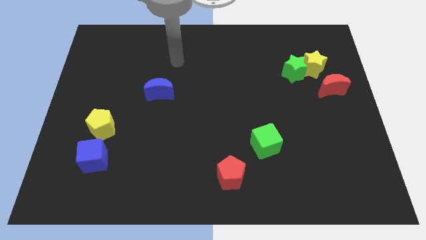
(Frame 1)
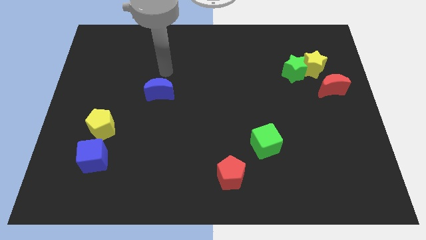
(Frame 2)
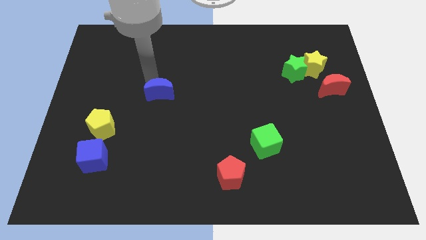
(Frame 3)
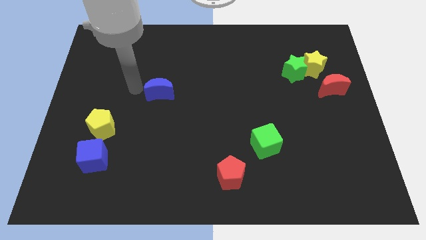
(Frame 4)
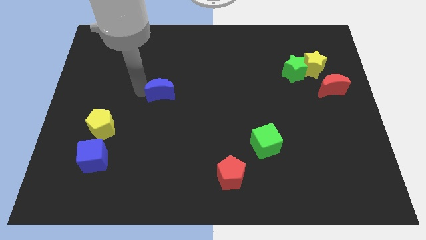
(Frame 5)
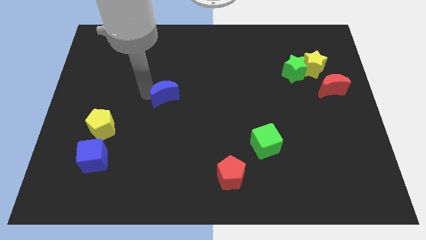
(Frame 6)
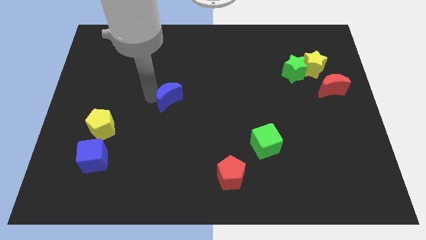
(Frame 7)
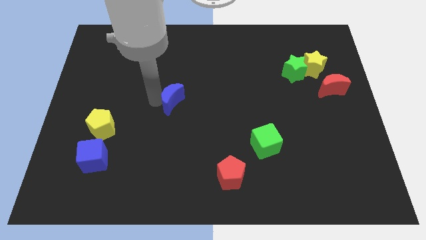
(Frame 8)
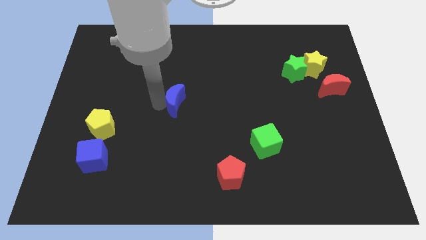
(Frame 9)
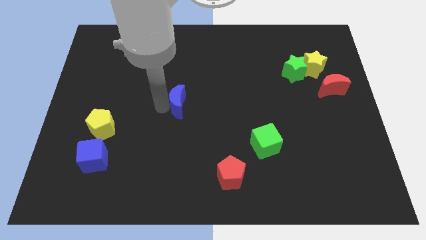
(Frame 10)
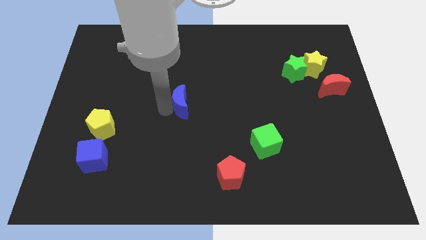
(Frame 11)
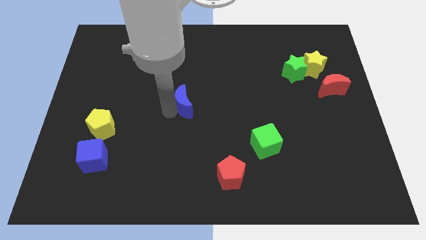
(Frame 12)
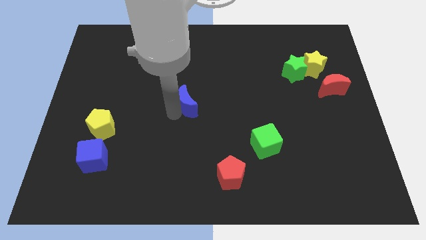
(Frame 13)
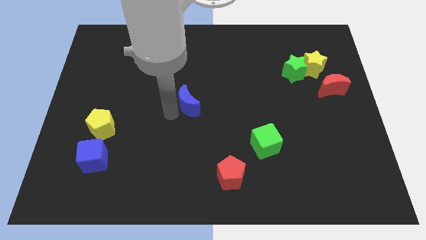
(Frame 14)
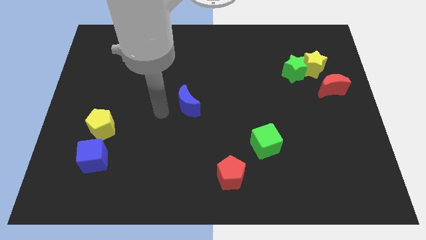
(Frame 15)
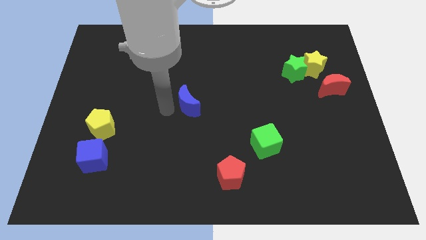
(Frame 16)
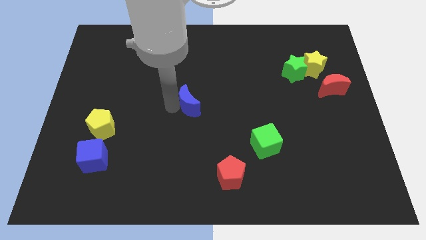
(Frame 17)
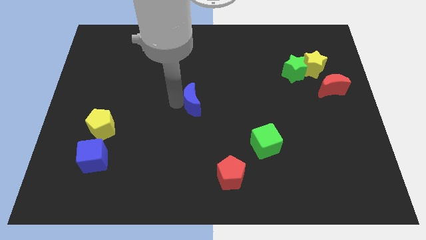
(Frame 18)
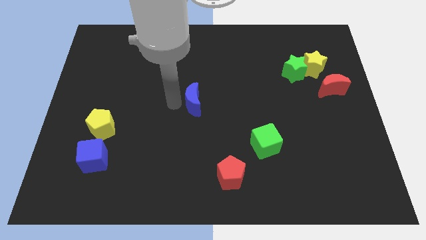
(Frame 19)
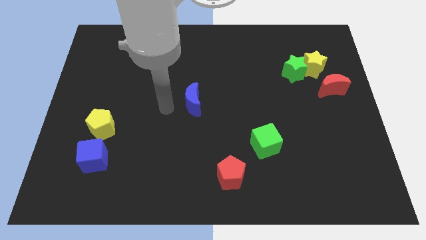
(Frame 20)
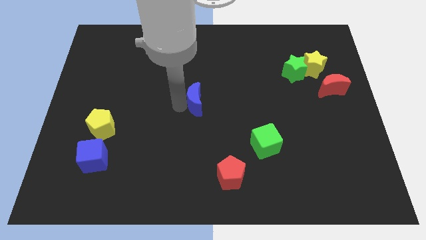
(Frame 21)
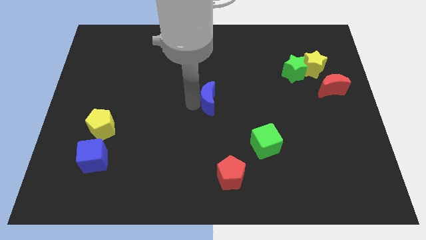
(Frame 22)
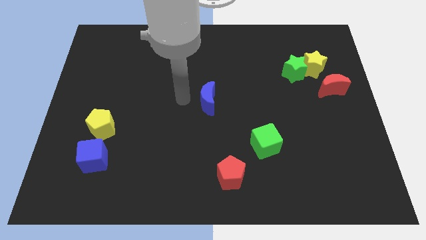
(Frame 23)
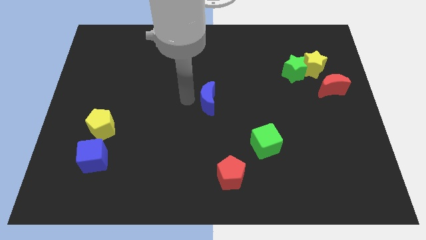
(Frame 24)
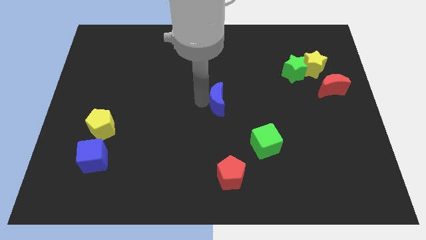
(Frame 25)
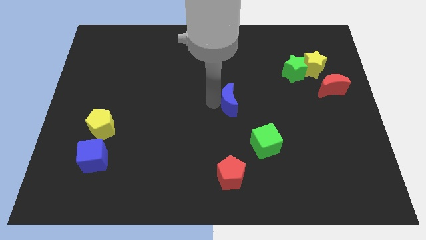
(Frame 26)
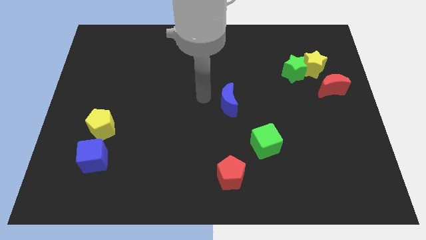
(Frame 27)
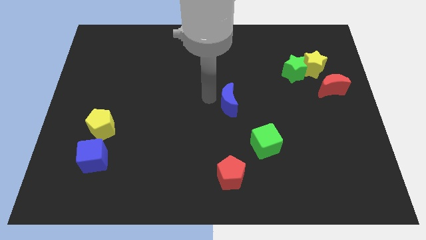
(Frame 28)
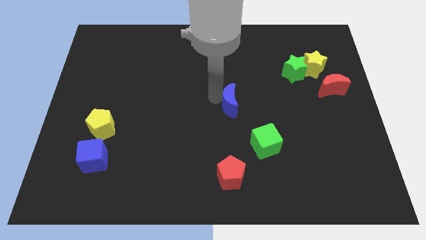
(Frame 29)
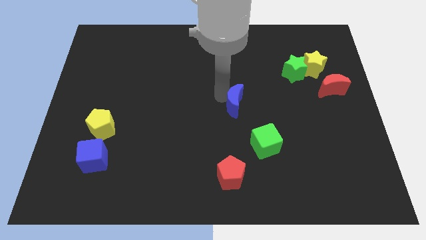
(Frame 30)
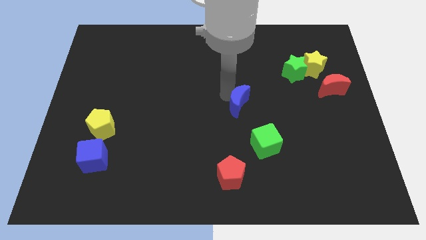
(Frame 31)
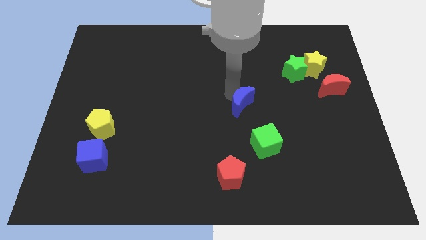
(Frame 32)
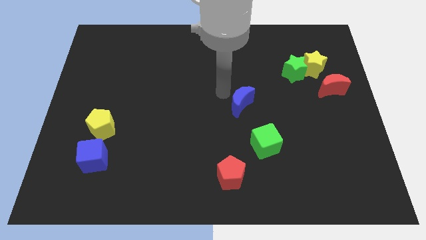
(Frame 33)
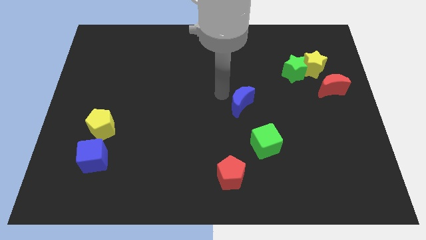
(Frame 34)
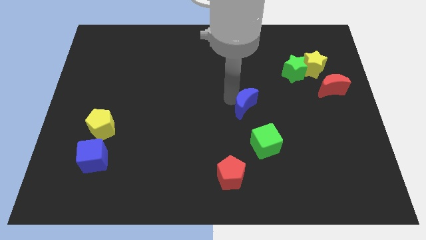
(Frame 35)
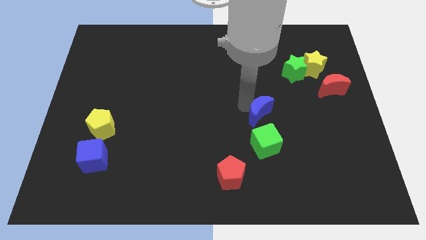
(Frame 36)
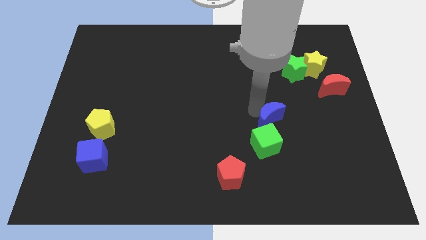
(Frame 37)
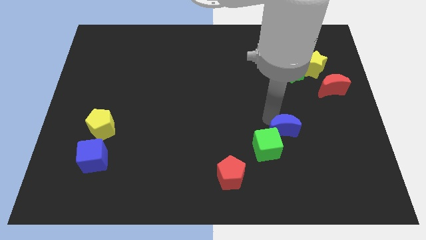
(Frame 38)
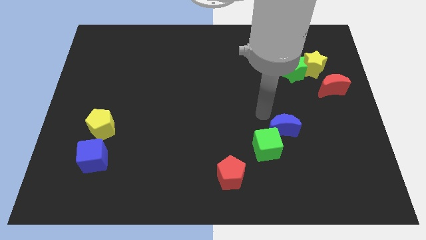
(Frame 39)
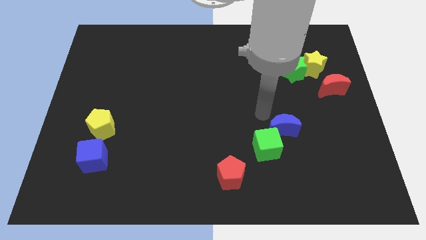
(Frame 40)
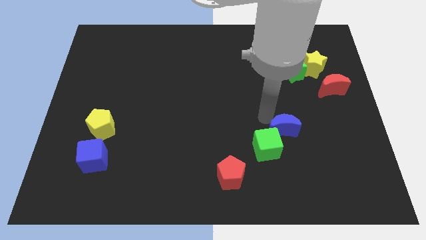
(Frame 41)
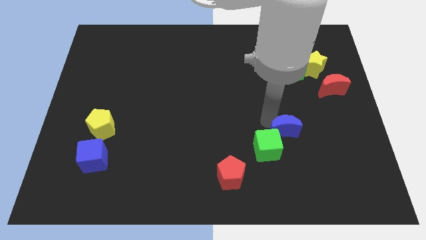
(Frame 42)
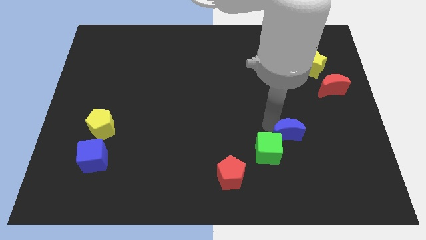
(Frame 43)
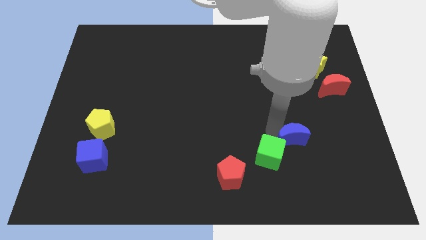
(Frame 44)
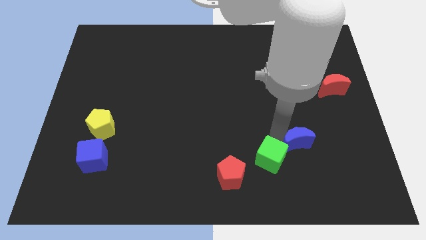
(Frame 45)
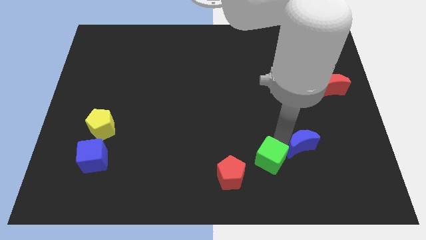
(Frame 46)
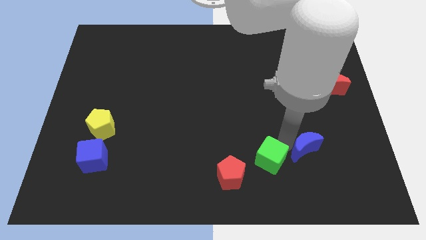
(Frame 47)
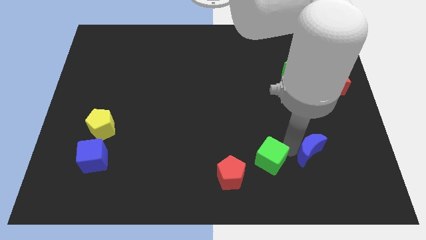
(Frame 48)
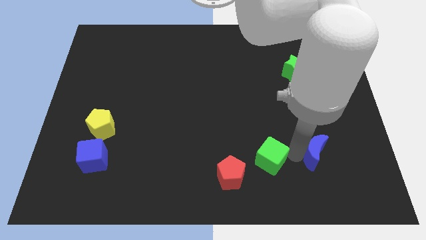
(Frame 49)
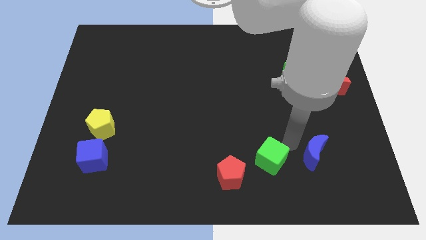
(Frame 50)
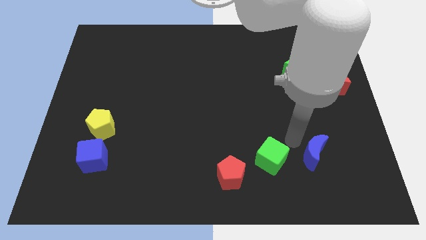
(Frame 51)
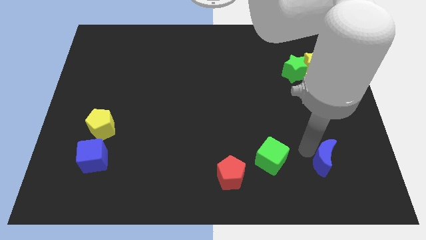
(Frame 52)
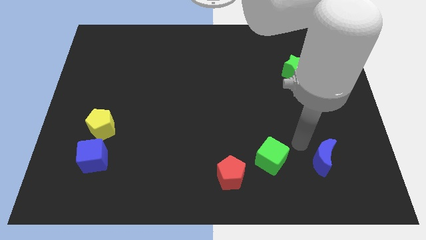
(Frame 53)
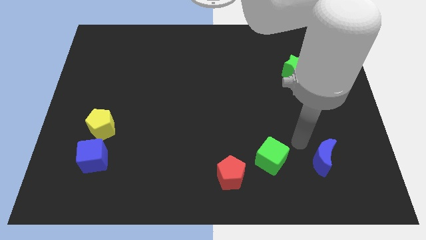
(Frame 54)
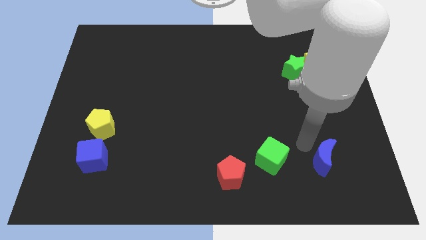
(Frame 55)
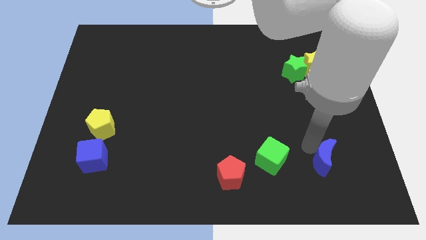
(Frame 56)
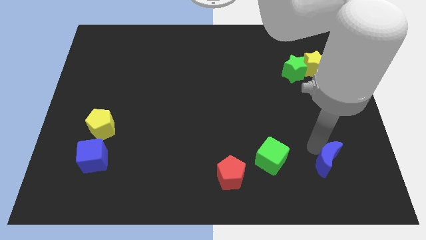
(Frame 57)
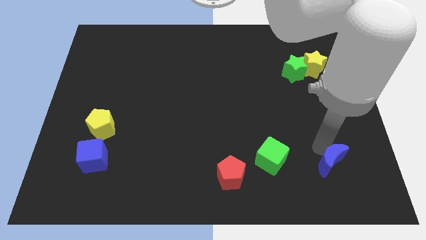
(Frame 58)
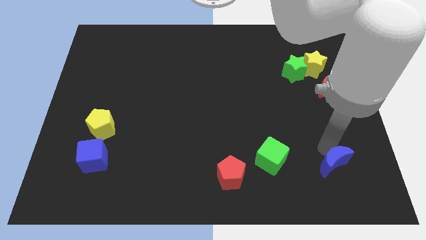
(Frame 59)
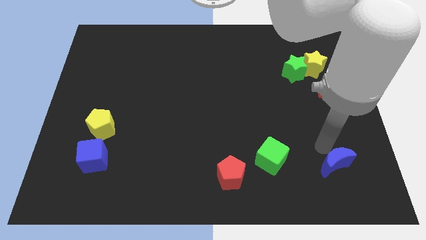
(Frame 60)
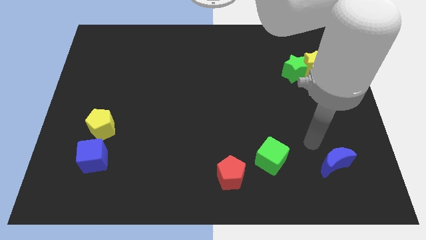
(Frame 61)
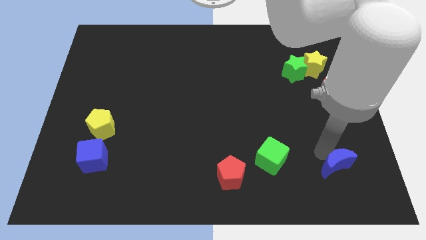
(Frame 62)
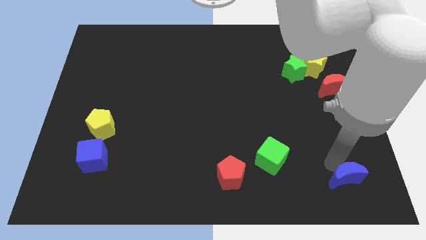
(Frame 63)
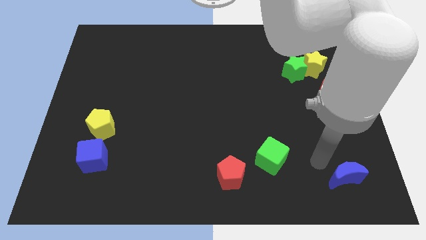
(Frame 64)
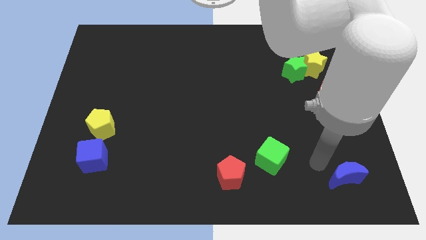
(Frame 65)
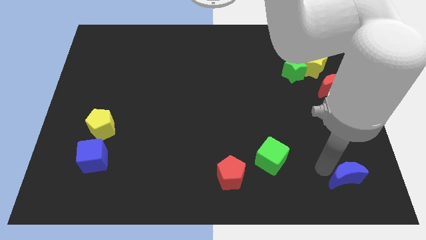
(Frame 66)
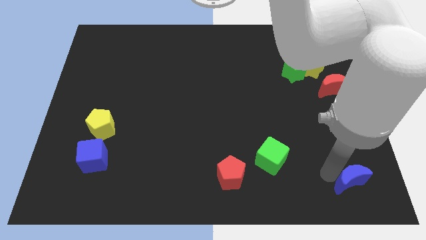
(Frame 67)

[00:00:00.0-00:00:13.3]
put the blue moon to the lower right corner

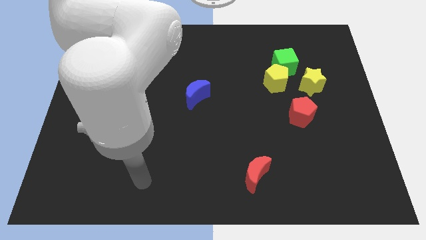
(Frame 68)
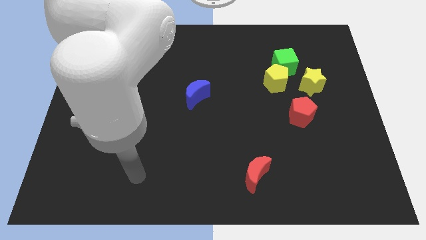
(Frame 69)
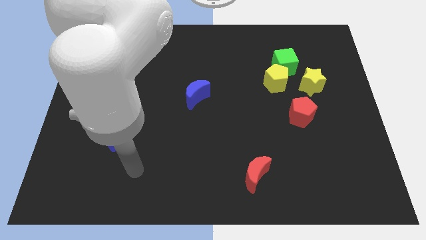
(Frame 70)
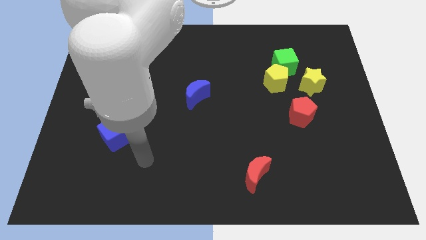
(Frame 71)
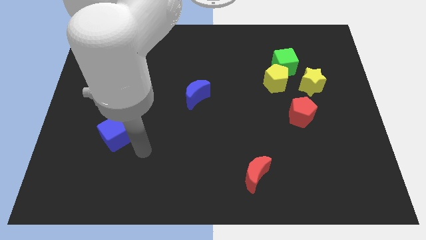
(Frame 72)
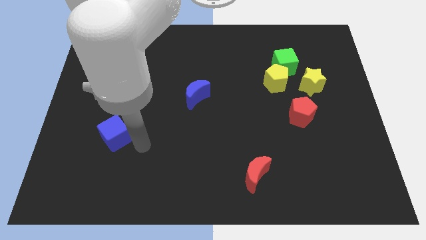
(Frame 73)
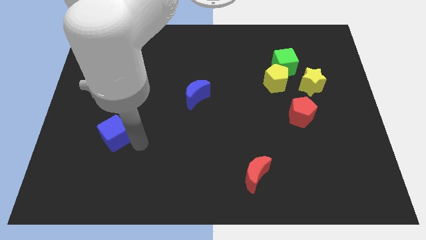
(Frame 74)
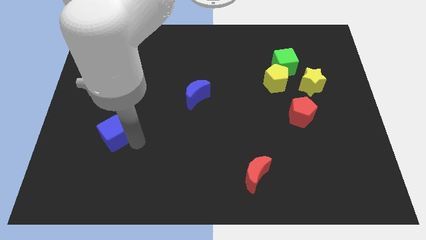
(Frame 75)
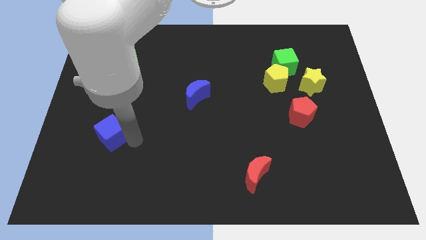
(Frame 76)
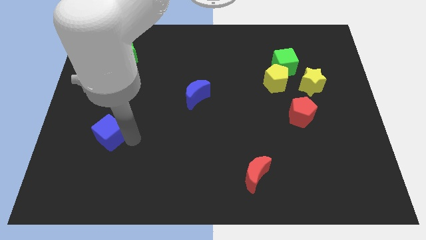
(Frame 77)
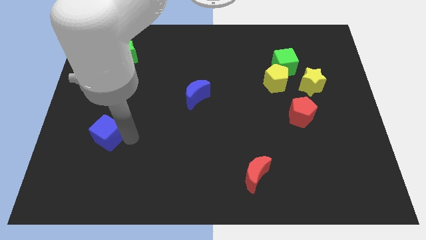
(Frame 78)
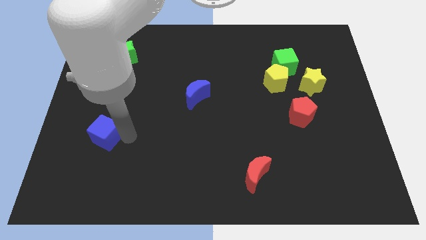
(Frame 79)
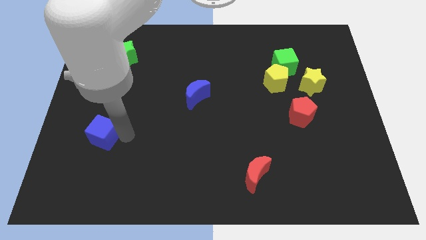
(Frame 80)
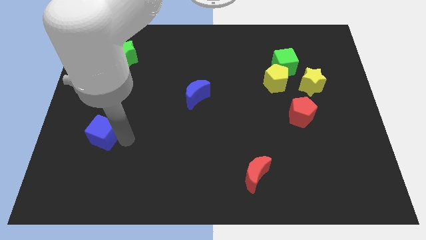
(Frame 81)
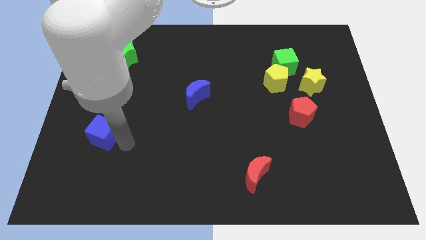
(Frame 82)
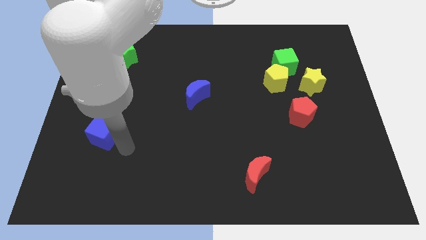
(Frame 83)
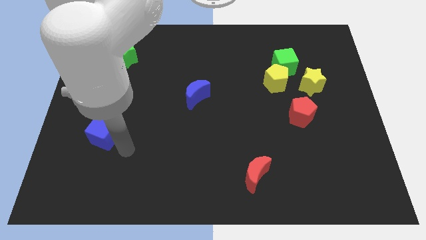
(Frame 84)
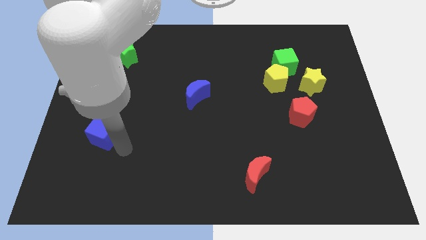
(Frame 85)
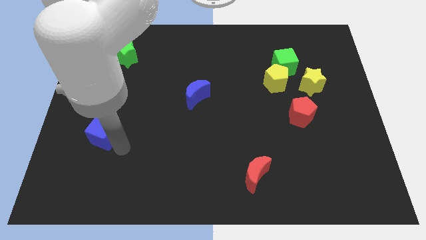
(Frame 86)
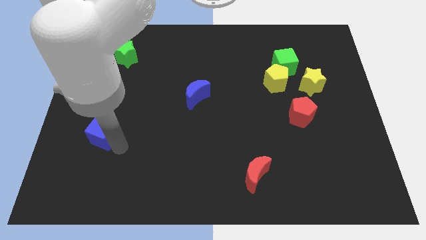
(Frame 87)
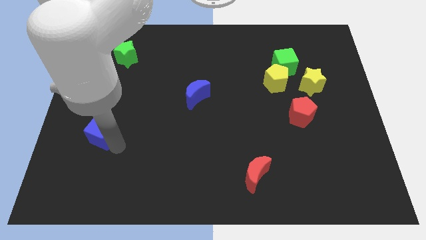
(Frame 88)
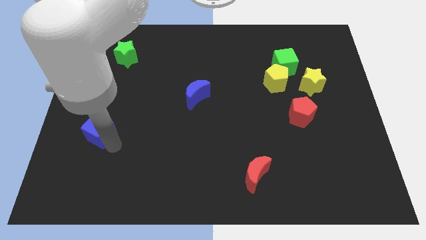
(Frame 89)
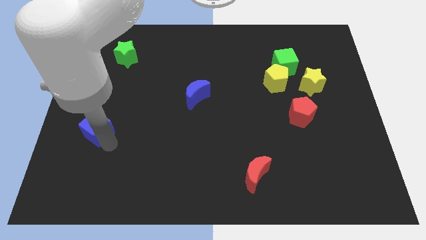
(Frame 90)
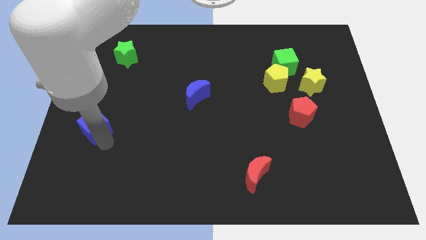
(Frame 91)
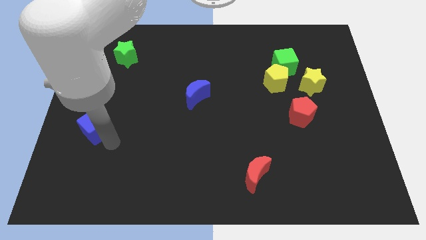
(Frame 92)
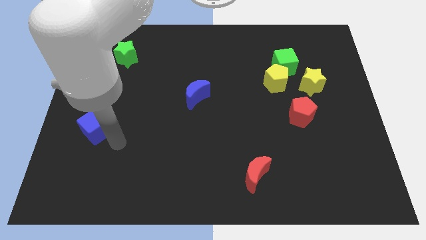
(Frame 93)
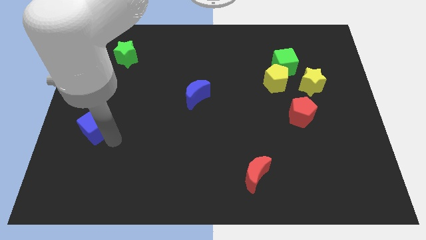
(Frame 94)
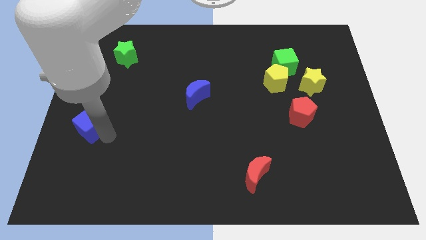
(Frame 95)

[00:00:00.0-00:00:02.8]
move the blue cube to the left side of the board
